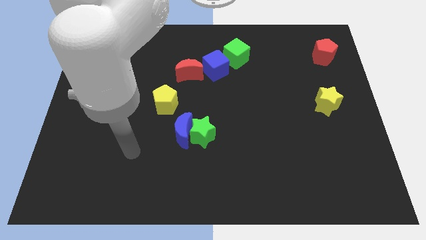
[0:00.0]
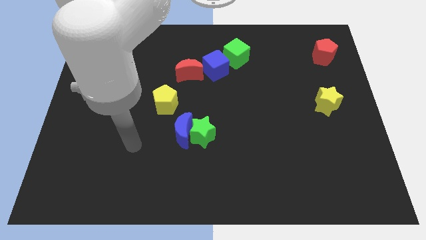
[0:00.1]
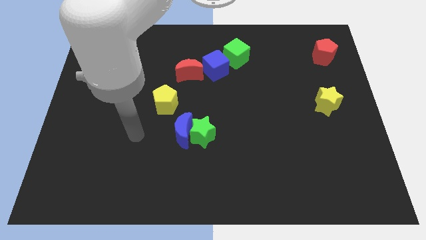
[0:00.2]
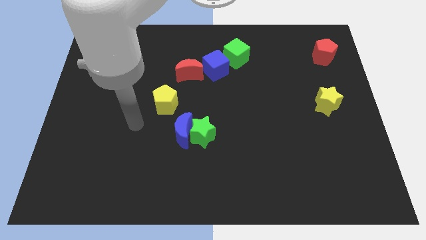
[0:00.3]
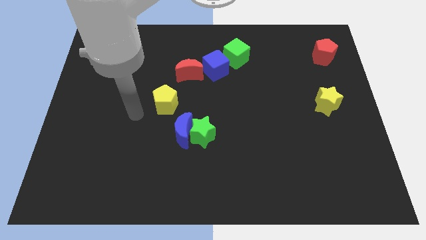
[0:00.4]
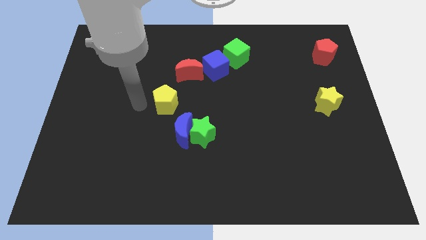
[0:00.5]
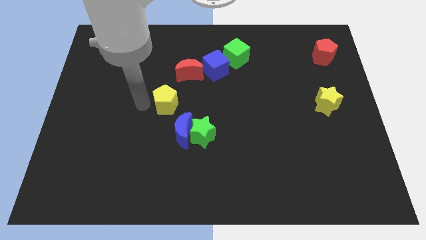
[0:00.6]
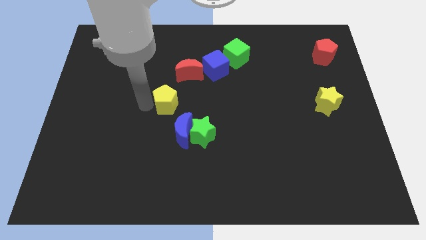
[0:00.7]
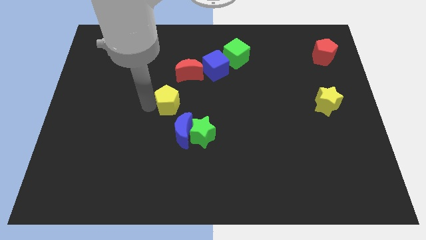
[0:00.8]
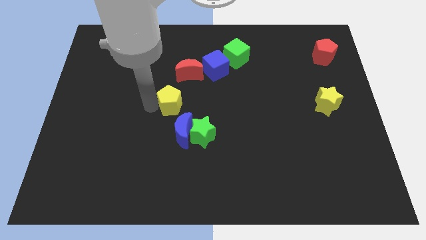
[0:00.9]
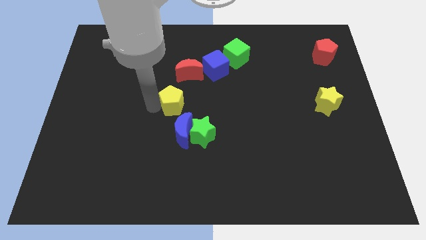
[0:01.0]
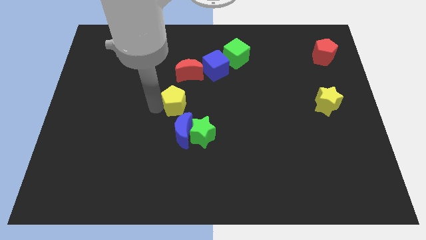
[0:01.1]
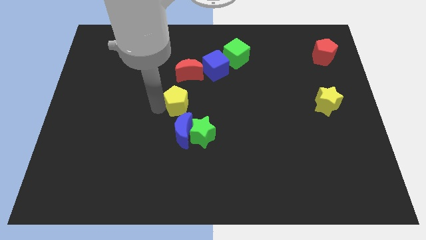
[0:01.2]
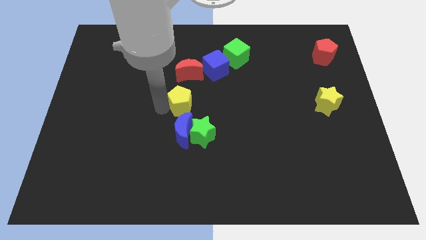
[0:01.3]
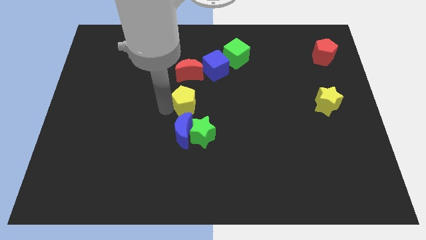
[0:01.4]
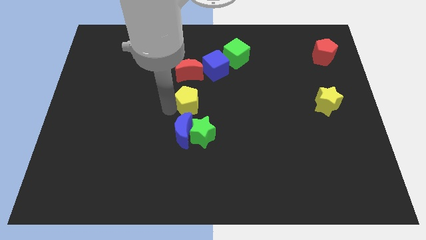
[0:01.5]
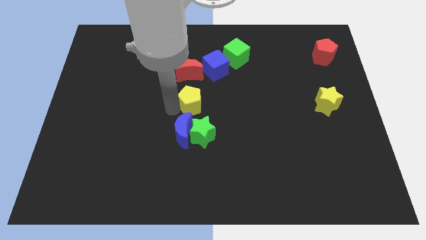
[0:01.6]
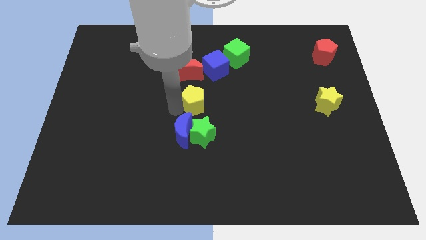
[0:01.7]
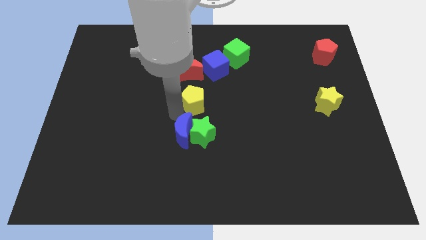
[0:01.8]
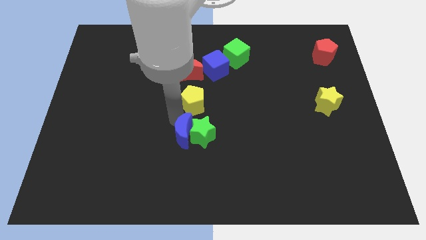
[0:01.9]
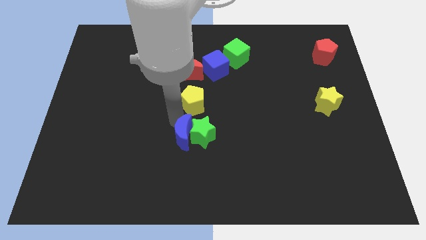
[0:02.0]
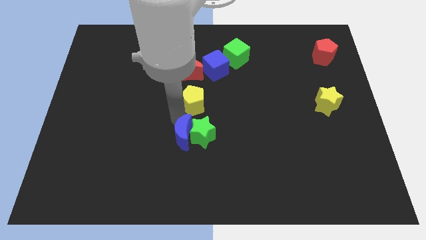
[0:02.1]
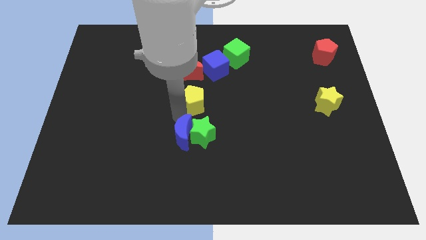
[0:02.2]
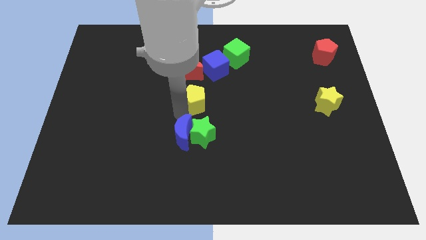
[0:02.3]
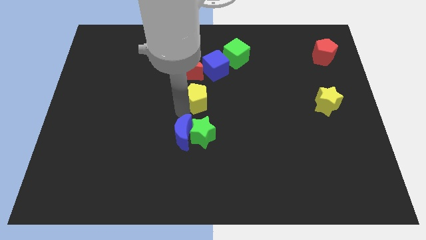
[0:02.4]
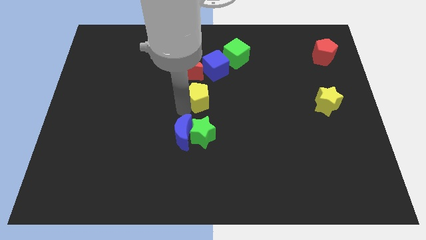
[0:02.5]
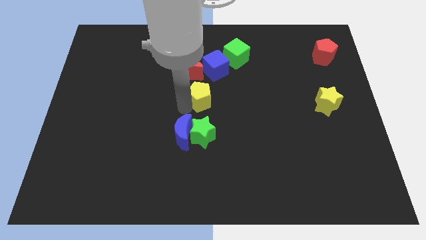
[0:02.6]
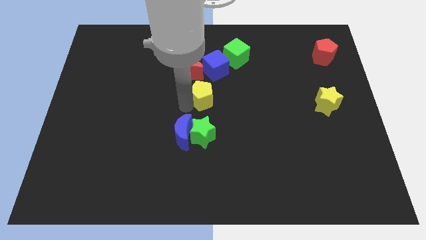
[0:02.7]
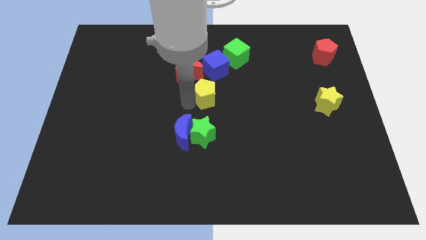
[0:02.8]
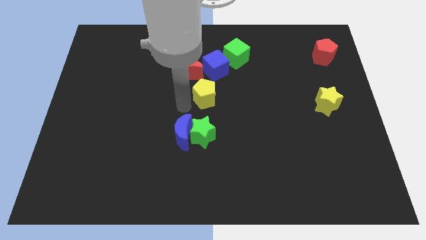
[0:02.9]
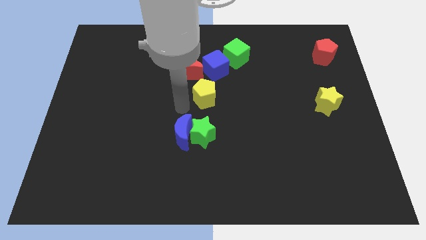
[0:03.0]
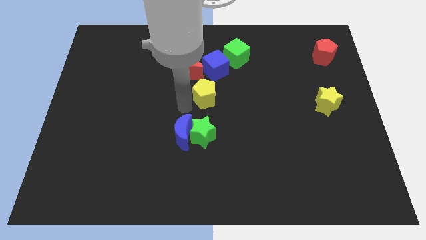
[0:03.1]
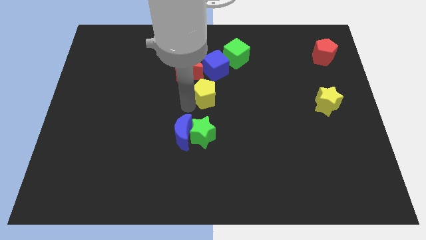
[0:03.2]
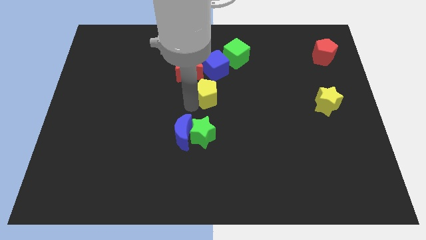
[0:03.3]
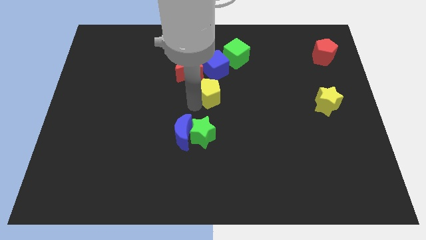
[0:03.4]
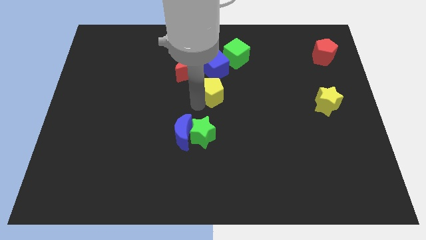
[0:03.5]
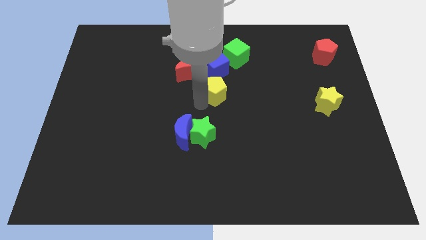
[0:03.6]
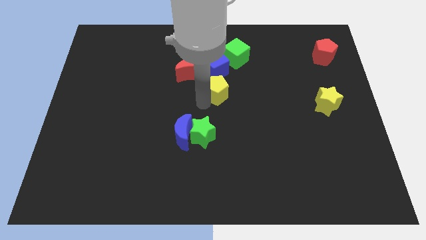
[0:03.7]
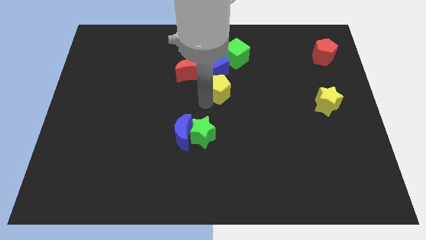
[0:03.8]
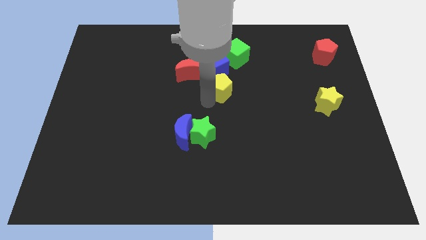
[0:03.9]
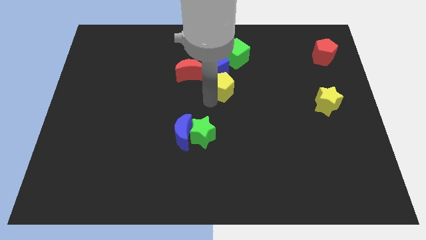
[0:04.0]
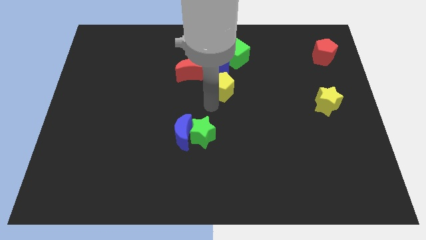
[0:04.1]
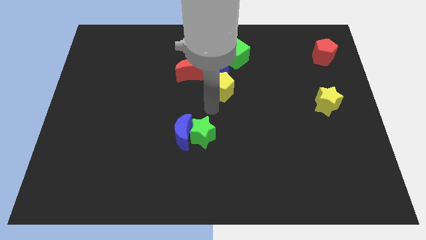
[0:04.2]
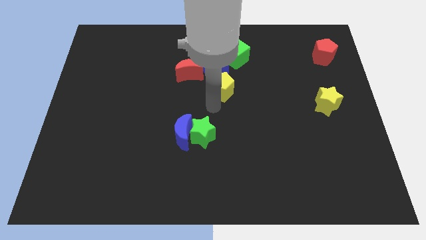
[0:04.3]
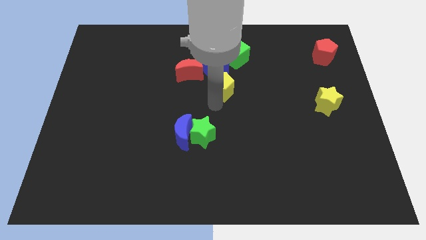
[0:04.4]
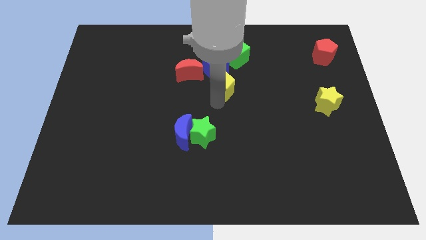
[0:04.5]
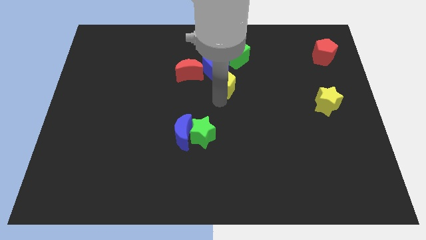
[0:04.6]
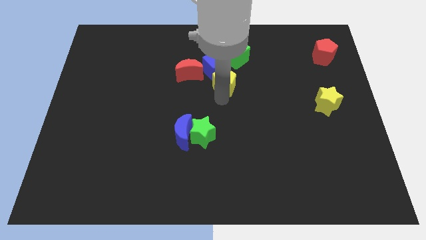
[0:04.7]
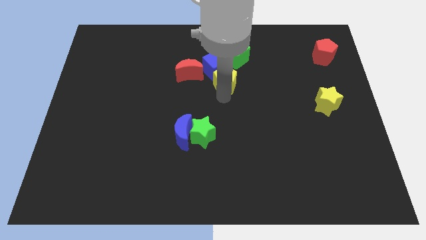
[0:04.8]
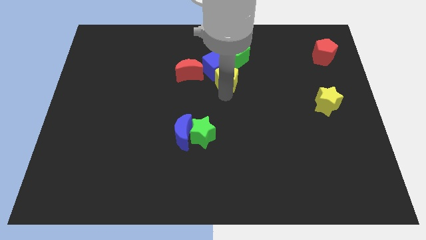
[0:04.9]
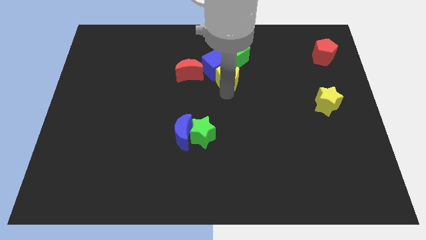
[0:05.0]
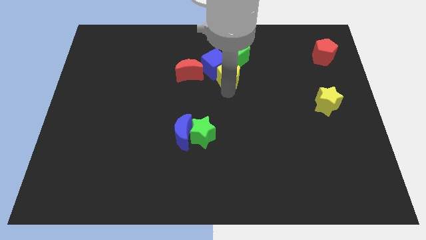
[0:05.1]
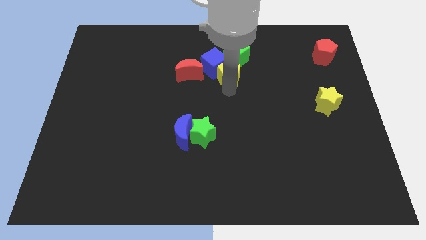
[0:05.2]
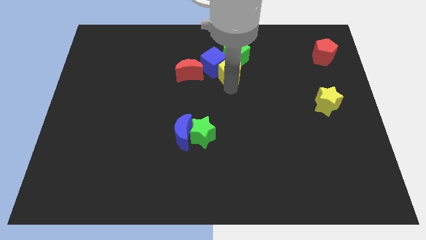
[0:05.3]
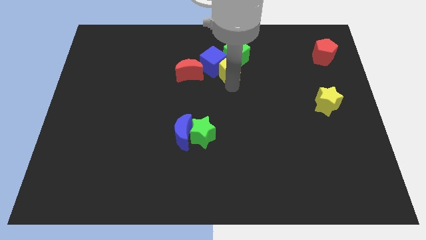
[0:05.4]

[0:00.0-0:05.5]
move the yellow pentagon to the green cube

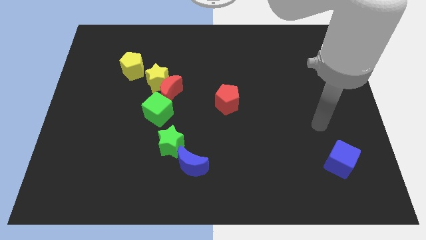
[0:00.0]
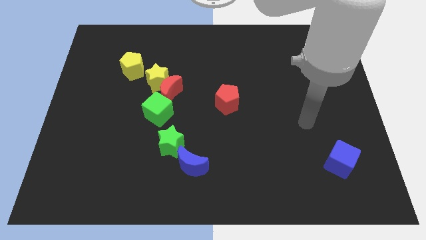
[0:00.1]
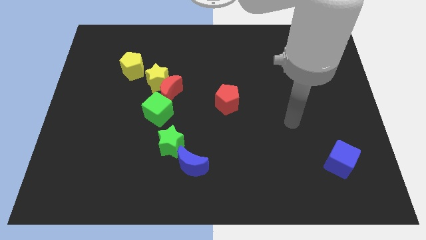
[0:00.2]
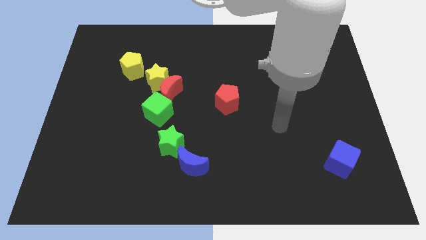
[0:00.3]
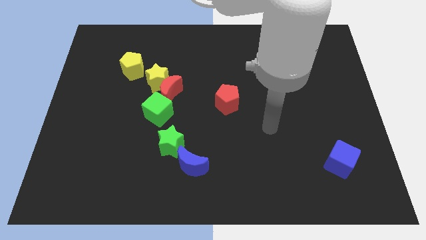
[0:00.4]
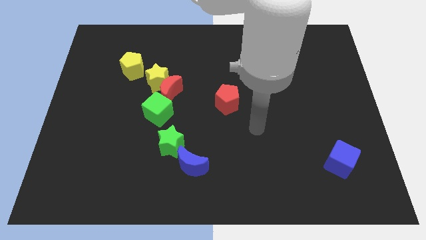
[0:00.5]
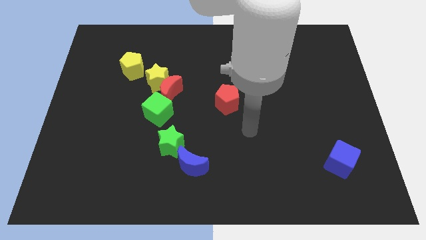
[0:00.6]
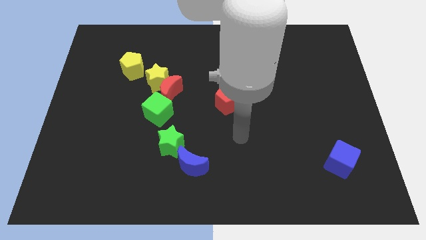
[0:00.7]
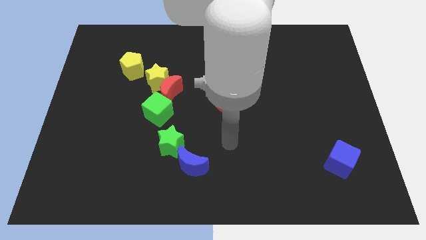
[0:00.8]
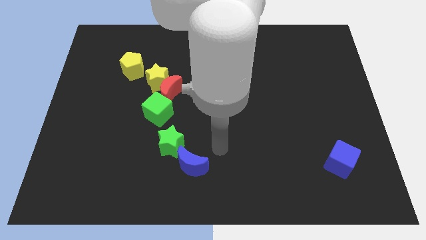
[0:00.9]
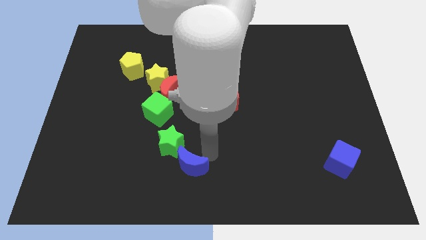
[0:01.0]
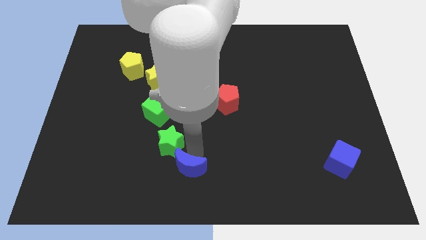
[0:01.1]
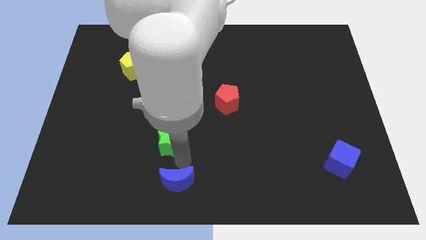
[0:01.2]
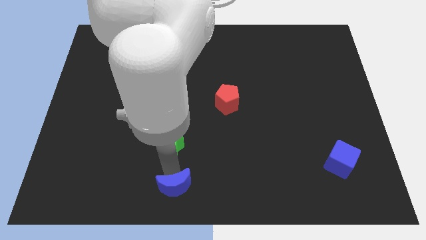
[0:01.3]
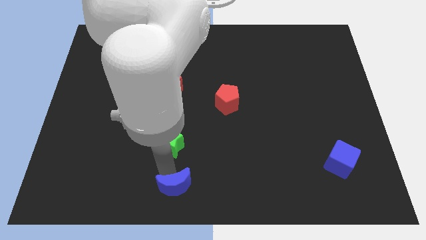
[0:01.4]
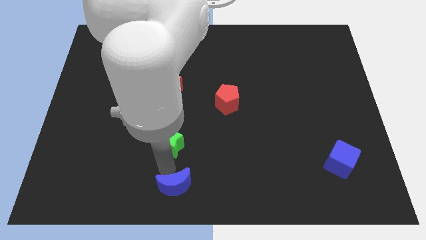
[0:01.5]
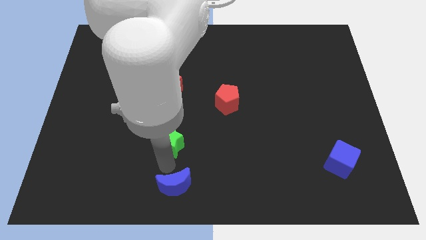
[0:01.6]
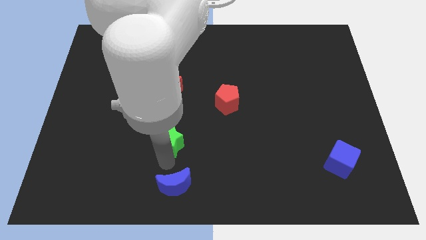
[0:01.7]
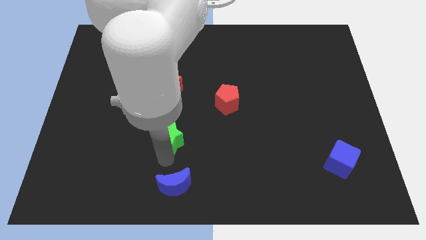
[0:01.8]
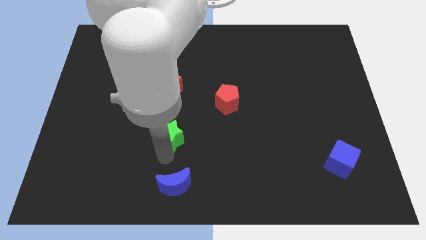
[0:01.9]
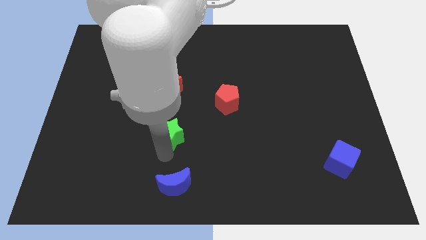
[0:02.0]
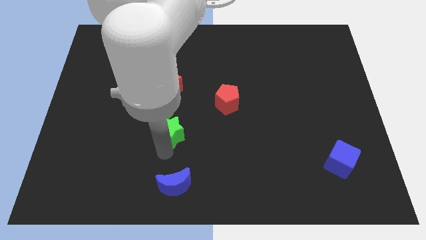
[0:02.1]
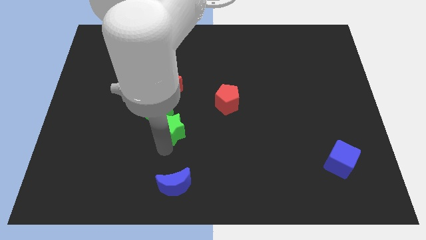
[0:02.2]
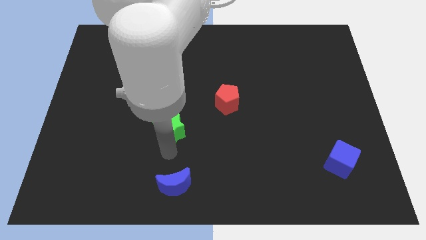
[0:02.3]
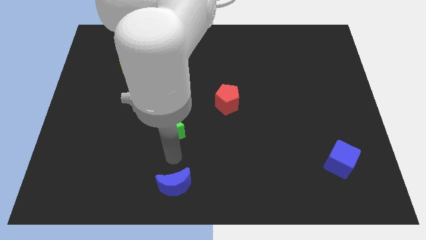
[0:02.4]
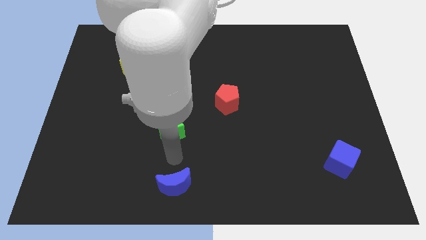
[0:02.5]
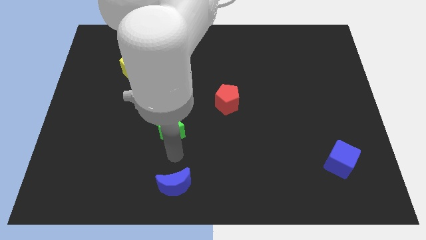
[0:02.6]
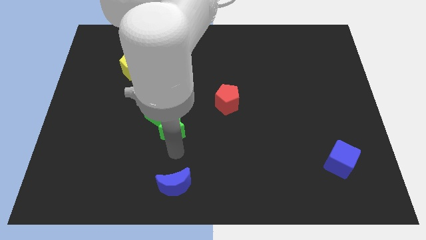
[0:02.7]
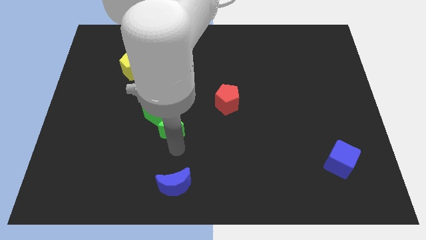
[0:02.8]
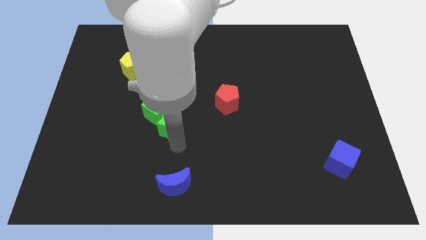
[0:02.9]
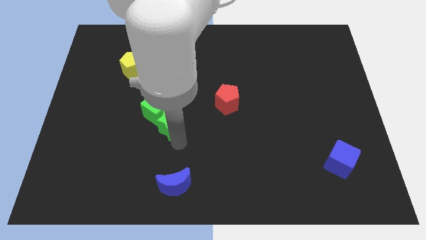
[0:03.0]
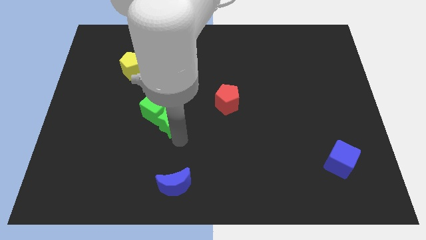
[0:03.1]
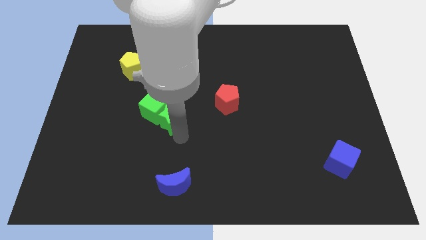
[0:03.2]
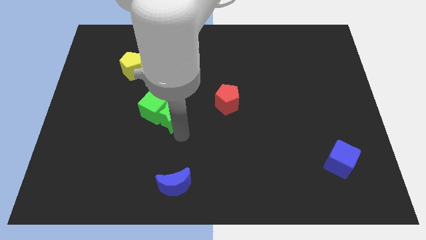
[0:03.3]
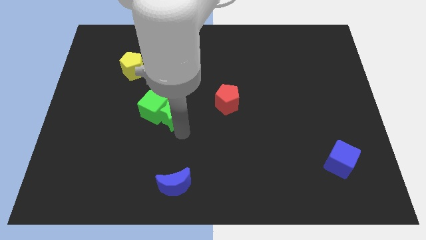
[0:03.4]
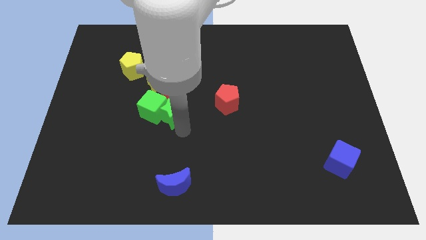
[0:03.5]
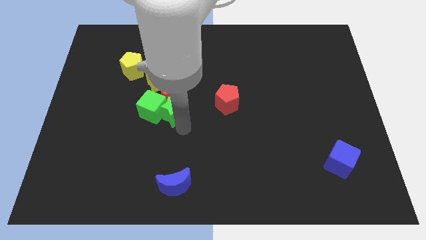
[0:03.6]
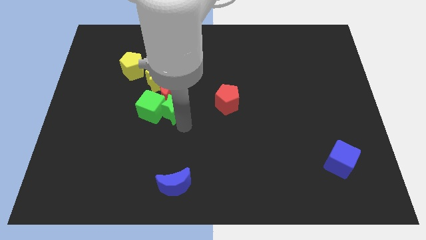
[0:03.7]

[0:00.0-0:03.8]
move the green star towards the red moon
